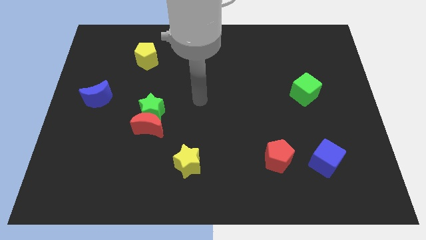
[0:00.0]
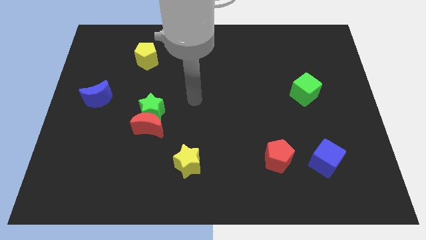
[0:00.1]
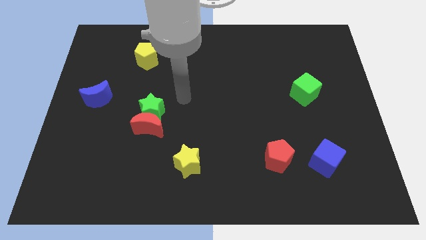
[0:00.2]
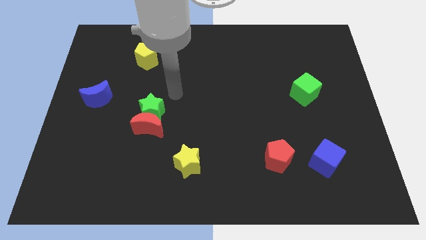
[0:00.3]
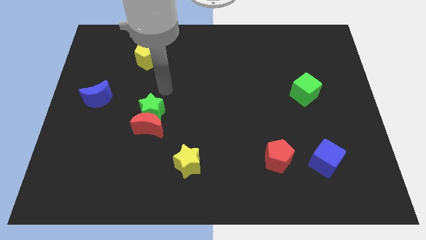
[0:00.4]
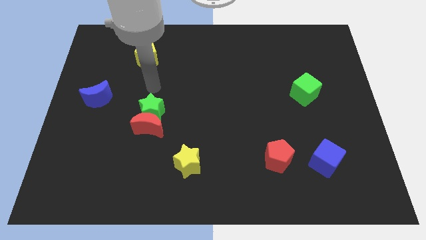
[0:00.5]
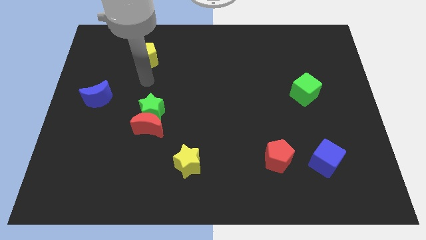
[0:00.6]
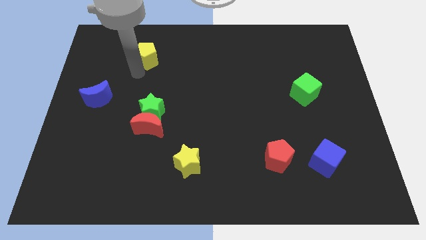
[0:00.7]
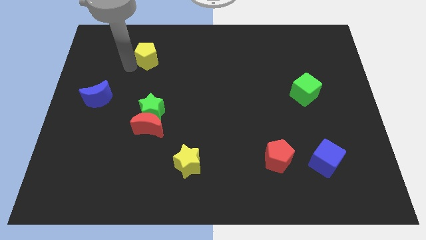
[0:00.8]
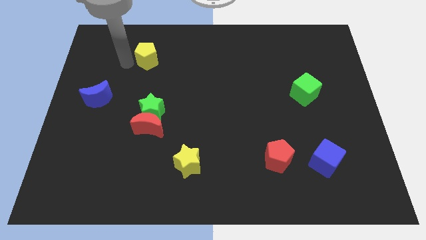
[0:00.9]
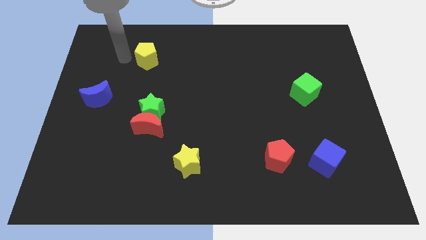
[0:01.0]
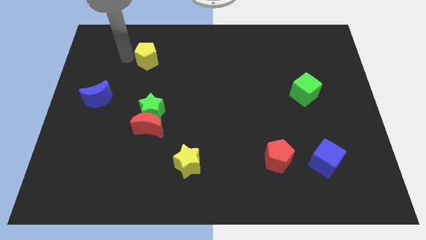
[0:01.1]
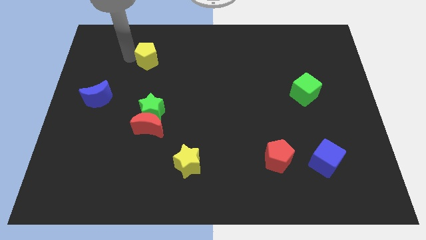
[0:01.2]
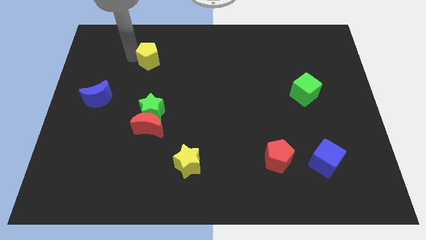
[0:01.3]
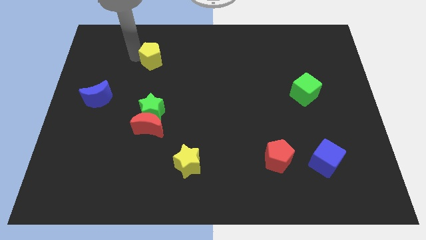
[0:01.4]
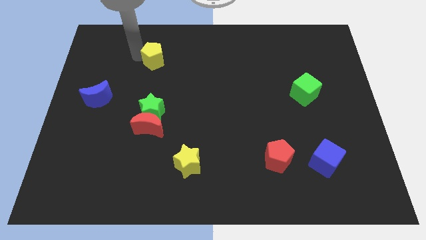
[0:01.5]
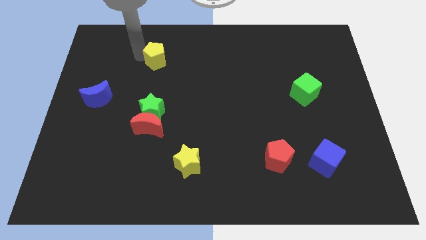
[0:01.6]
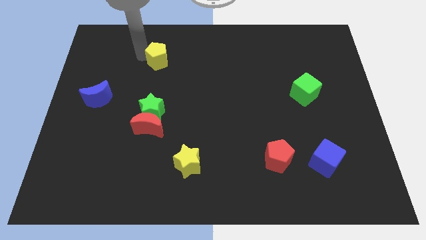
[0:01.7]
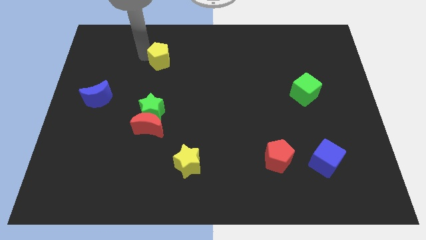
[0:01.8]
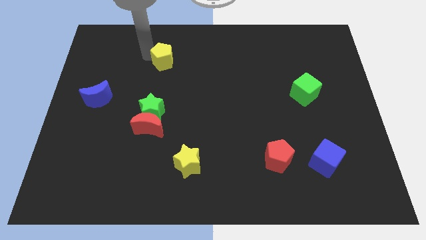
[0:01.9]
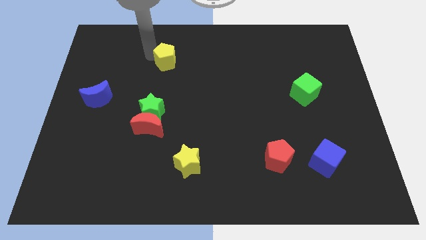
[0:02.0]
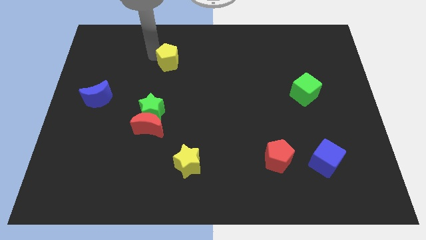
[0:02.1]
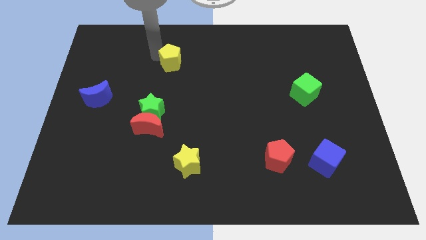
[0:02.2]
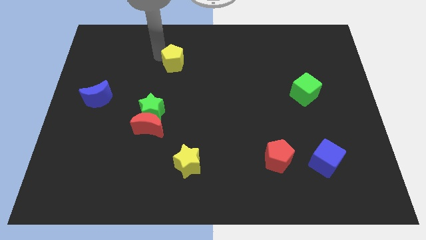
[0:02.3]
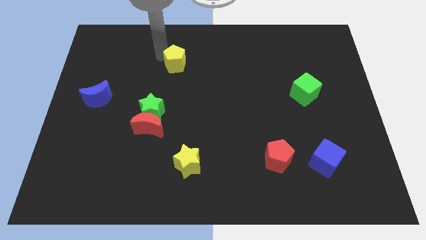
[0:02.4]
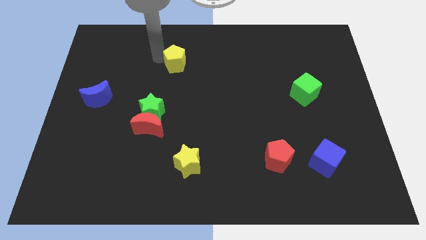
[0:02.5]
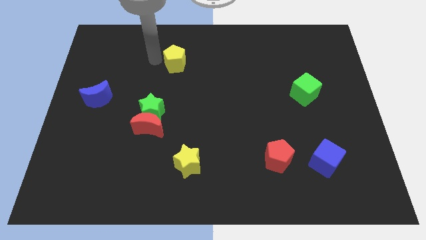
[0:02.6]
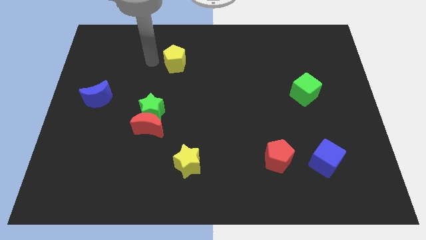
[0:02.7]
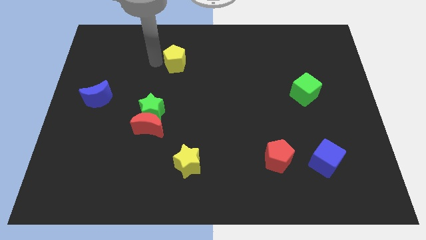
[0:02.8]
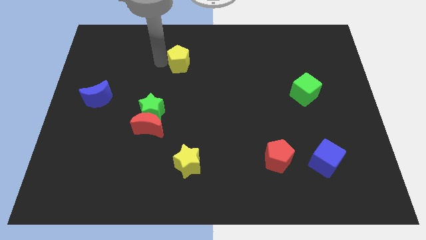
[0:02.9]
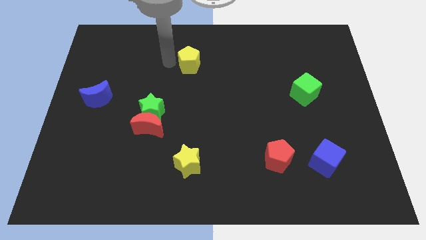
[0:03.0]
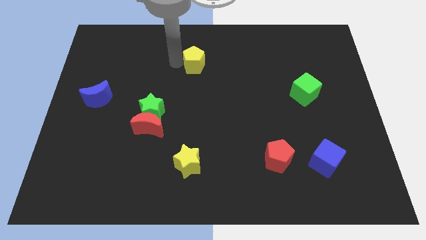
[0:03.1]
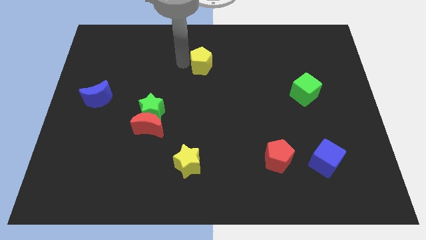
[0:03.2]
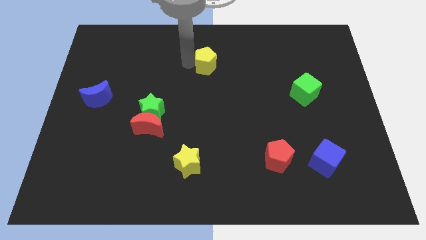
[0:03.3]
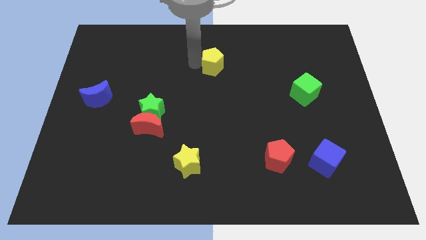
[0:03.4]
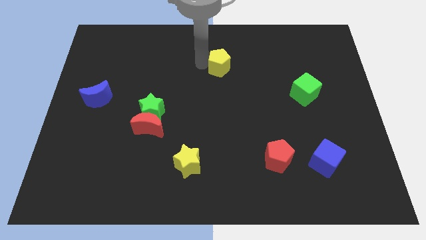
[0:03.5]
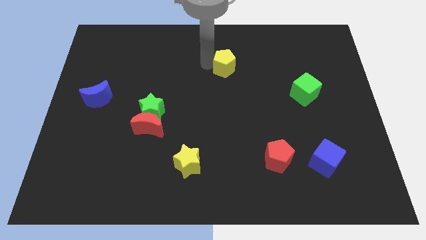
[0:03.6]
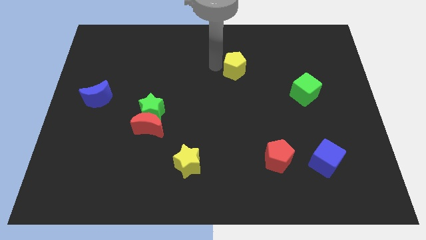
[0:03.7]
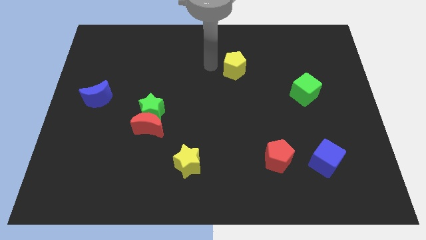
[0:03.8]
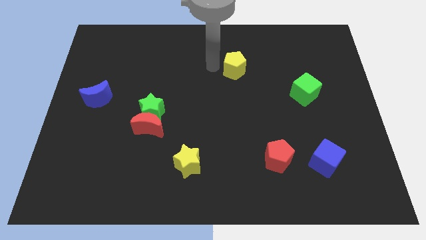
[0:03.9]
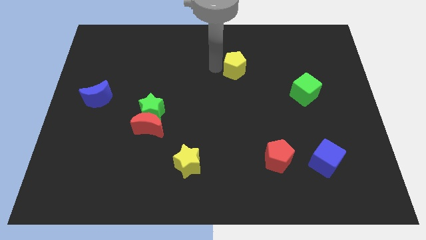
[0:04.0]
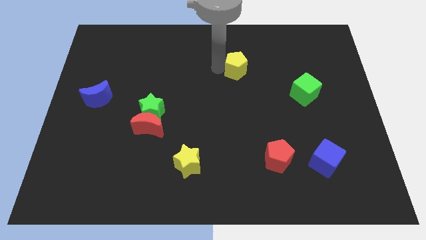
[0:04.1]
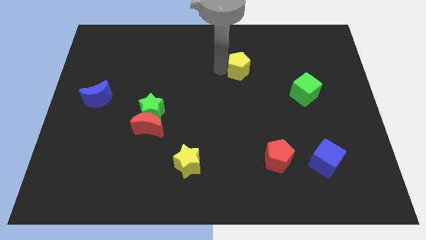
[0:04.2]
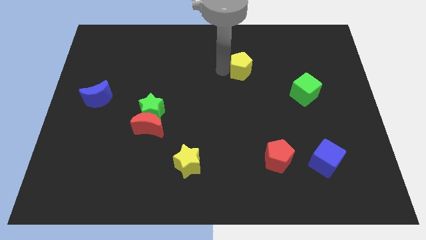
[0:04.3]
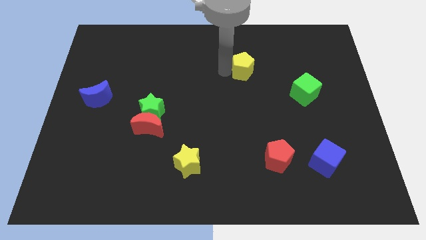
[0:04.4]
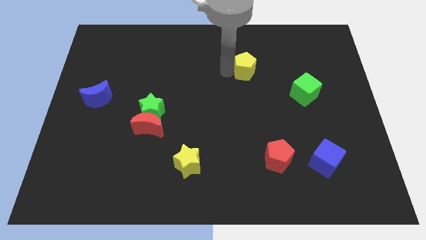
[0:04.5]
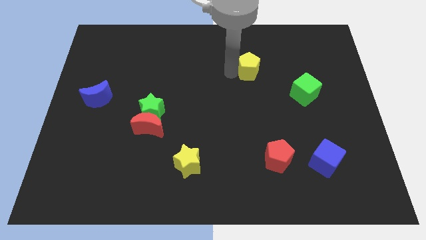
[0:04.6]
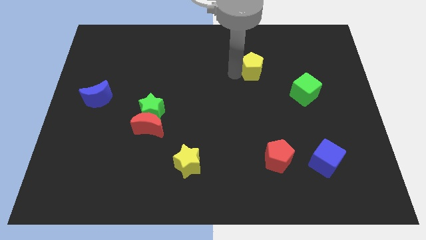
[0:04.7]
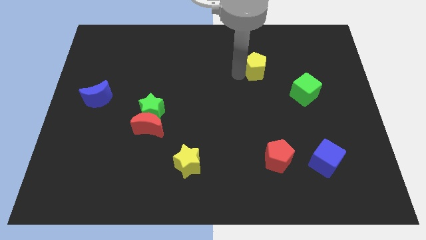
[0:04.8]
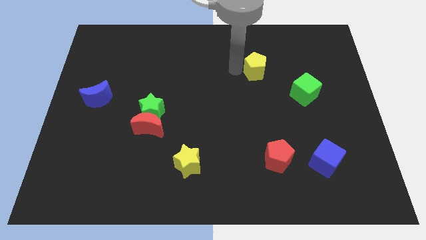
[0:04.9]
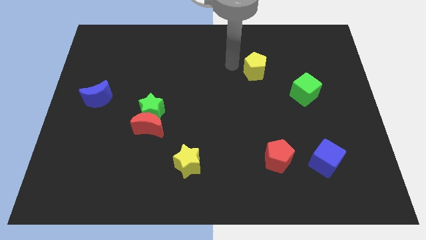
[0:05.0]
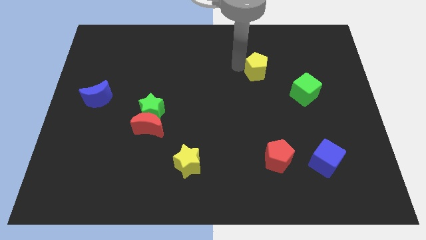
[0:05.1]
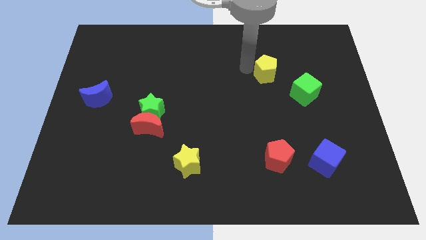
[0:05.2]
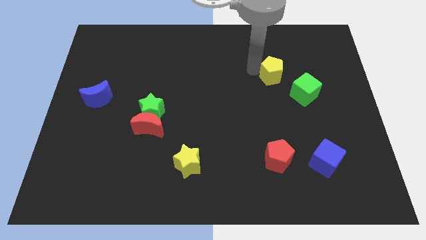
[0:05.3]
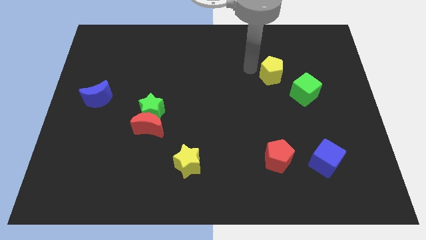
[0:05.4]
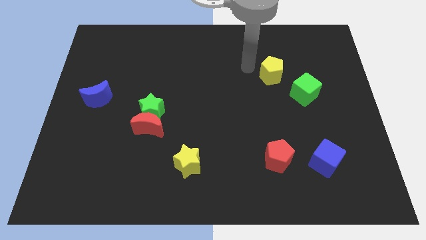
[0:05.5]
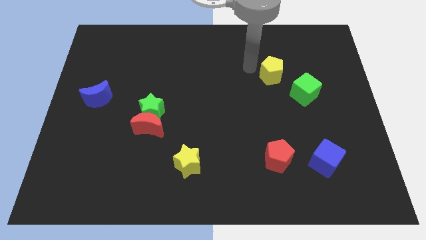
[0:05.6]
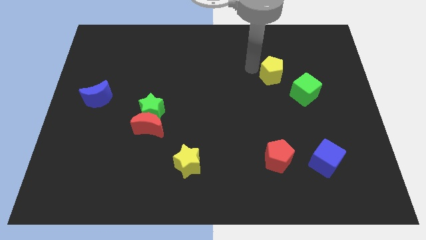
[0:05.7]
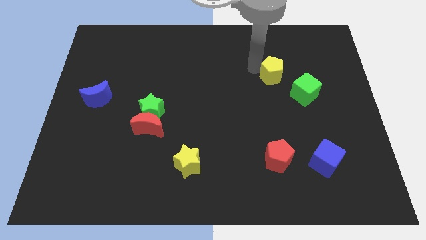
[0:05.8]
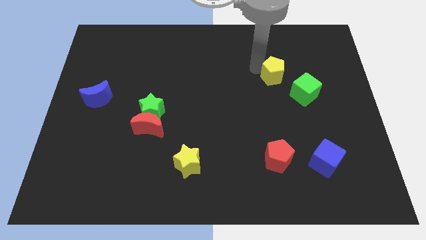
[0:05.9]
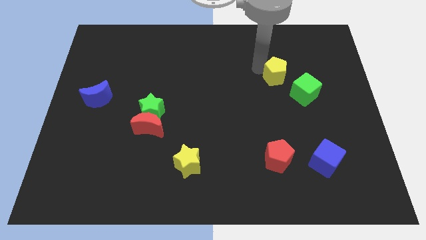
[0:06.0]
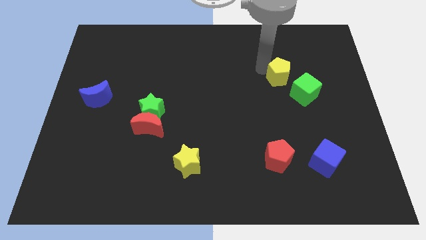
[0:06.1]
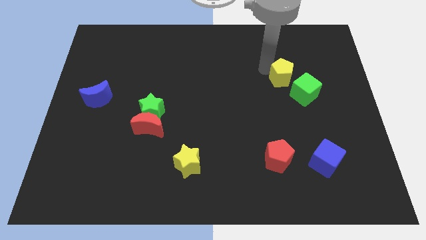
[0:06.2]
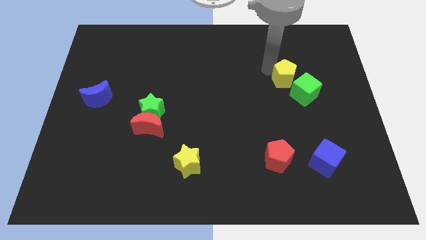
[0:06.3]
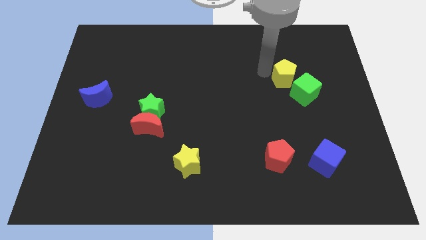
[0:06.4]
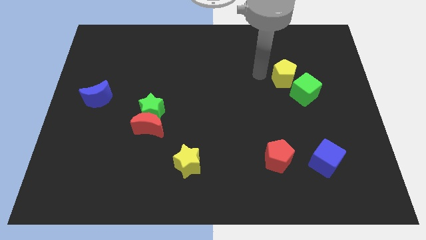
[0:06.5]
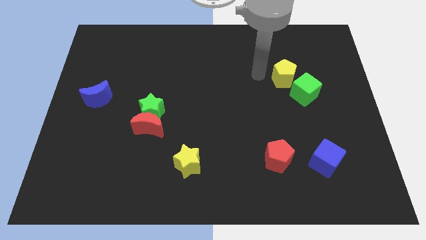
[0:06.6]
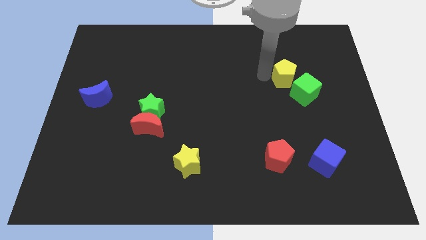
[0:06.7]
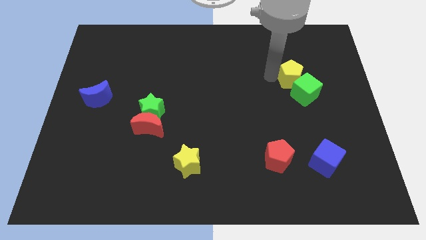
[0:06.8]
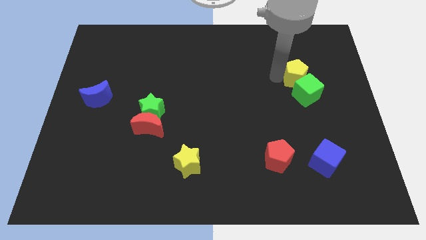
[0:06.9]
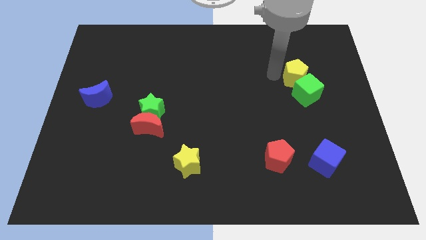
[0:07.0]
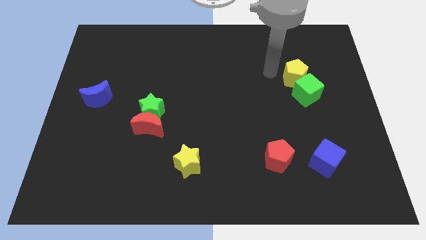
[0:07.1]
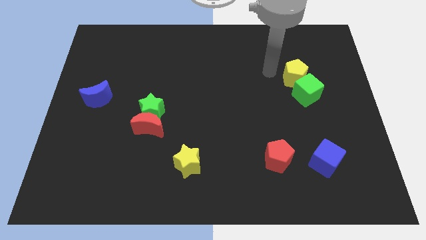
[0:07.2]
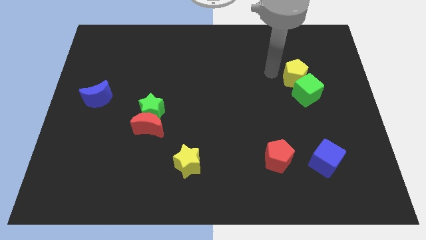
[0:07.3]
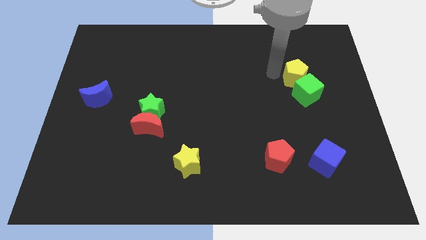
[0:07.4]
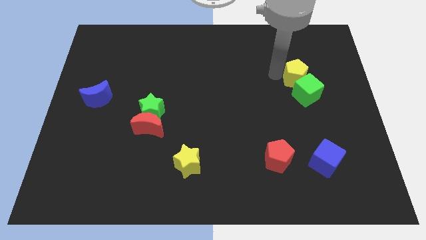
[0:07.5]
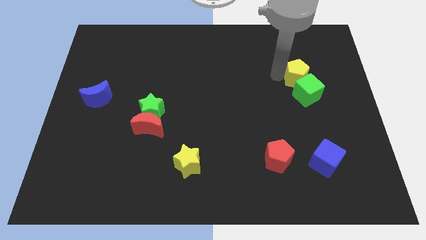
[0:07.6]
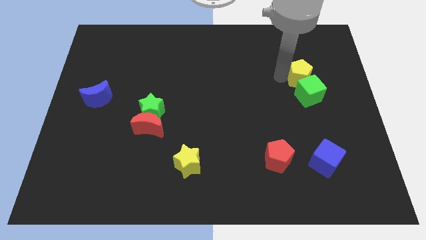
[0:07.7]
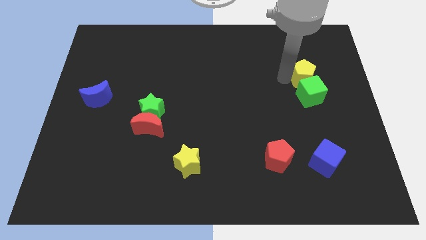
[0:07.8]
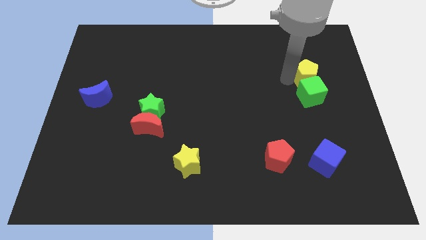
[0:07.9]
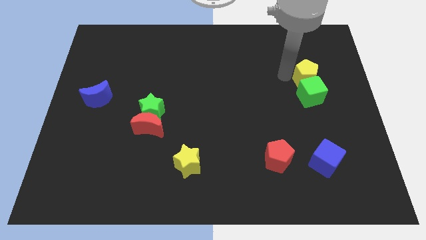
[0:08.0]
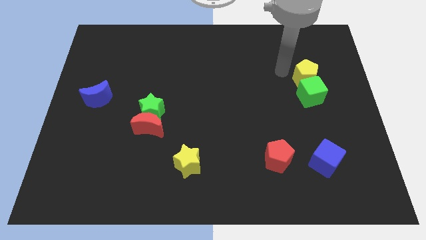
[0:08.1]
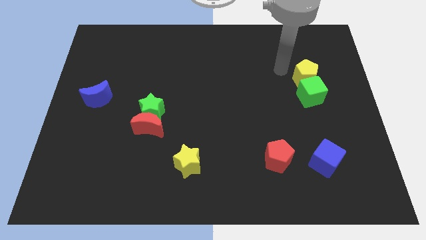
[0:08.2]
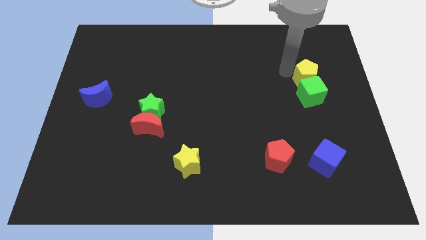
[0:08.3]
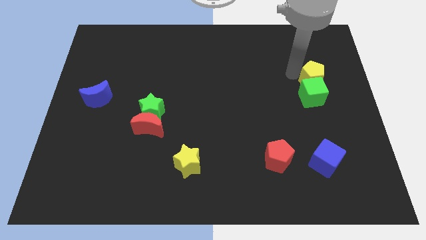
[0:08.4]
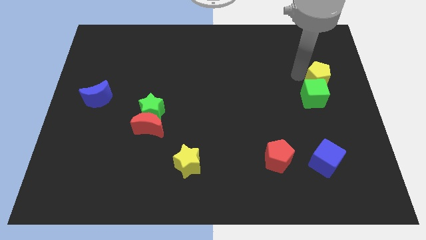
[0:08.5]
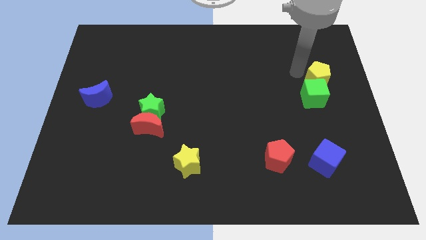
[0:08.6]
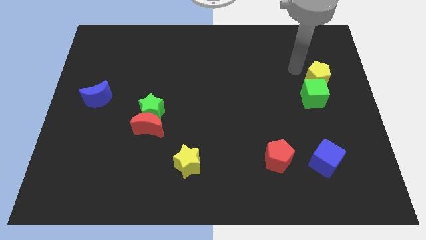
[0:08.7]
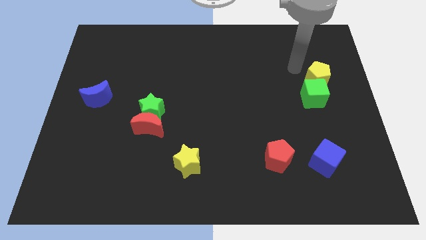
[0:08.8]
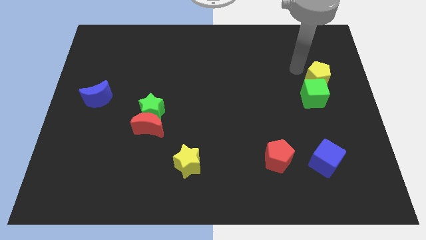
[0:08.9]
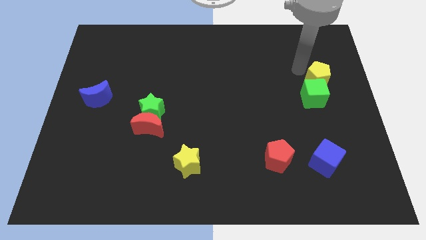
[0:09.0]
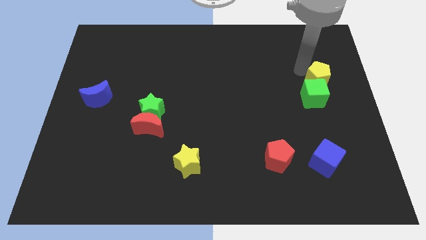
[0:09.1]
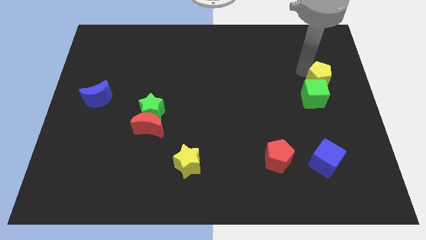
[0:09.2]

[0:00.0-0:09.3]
push the yellow pentagon to the right side of the board
